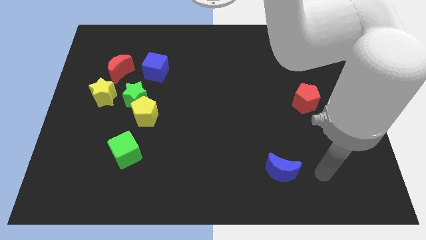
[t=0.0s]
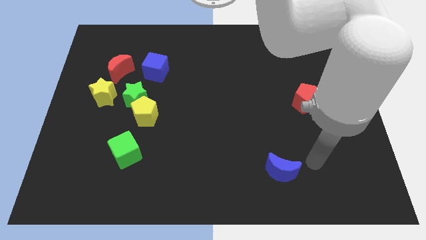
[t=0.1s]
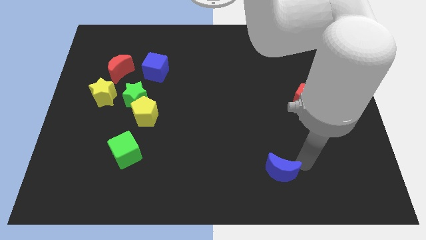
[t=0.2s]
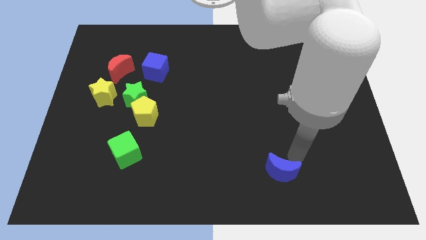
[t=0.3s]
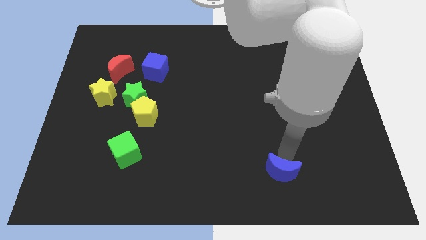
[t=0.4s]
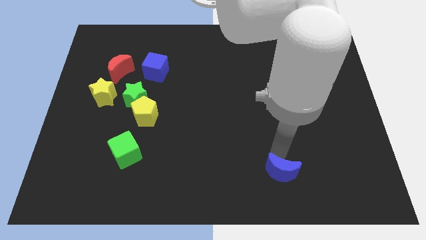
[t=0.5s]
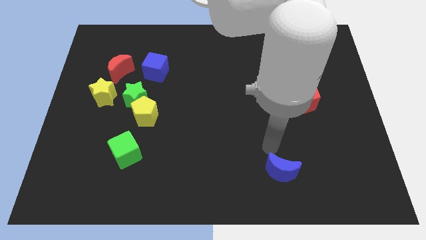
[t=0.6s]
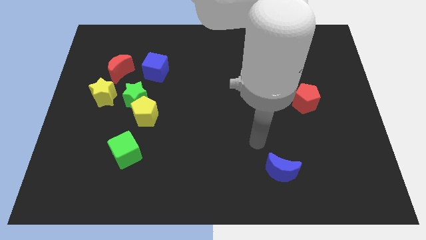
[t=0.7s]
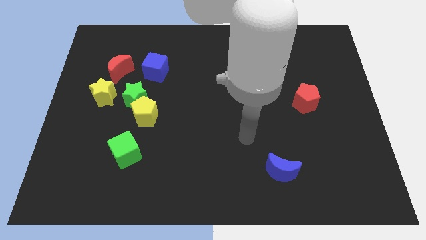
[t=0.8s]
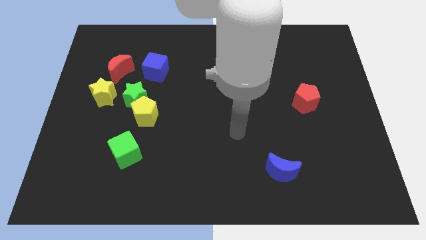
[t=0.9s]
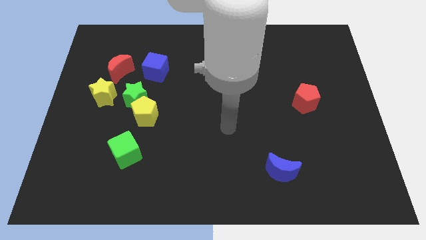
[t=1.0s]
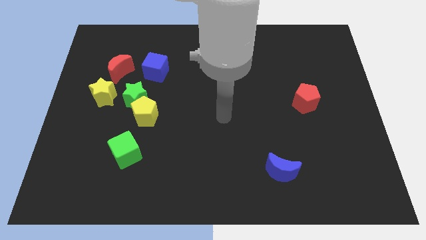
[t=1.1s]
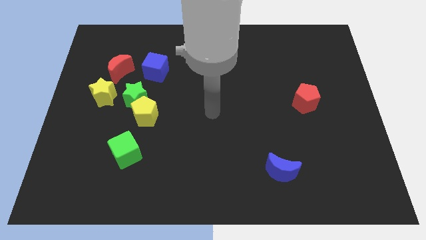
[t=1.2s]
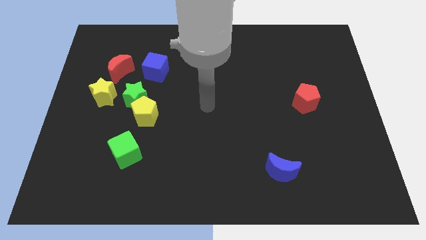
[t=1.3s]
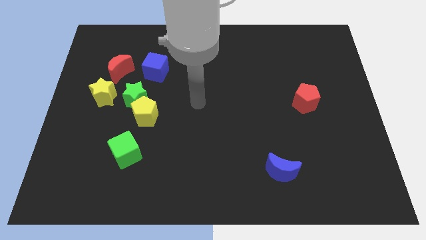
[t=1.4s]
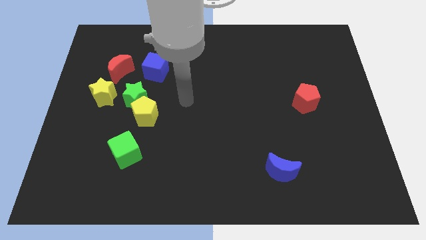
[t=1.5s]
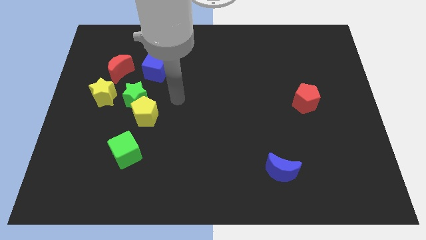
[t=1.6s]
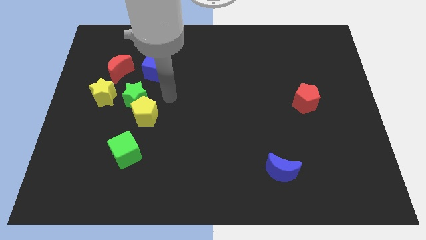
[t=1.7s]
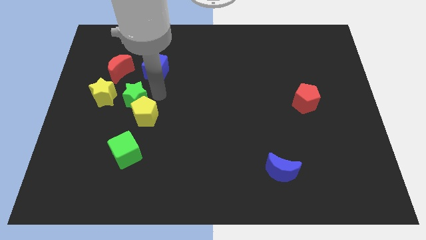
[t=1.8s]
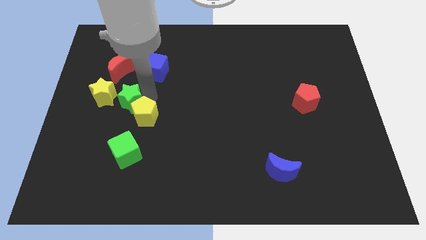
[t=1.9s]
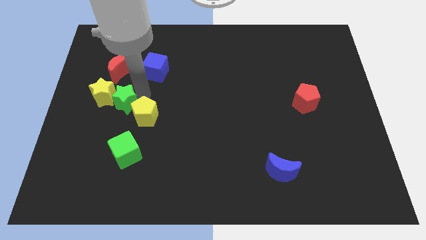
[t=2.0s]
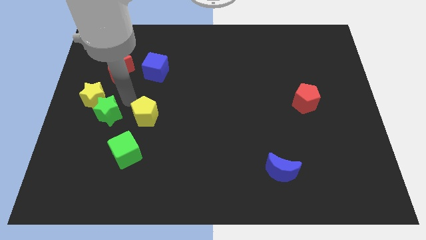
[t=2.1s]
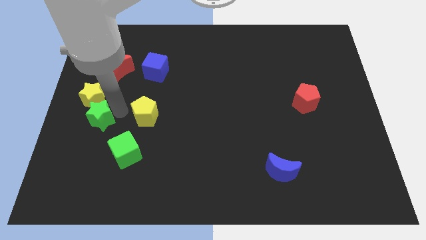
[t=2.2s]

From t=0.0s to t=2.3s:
move the yellow pentagon away from the green star

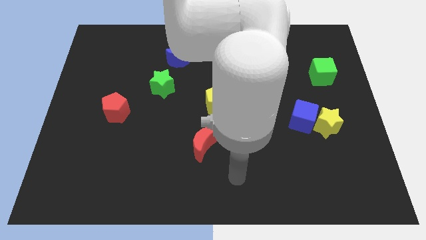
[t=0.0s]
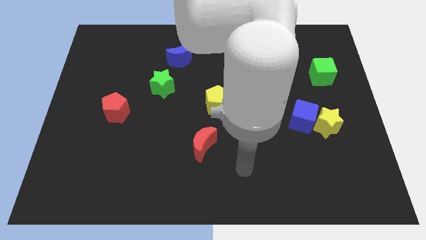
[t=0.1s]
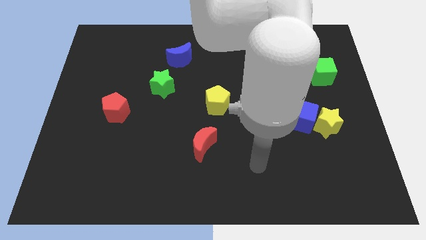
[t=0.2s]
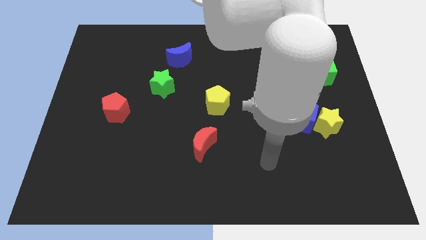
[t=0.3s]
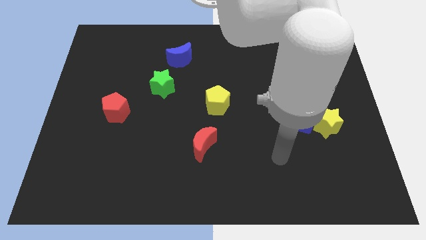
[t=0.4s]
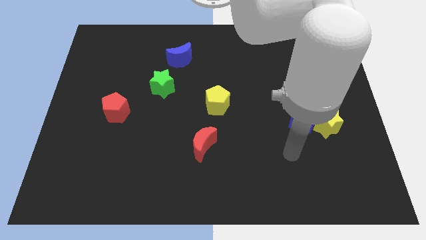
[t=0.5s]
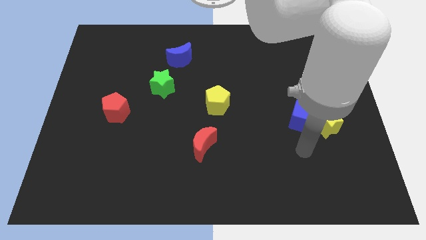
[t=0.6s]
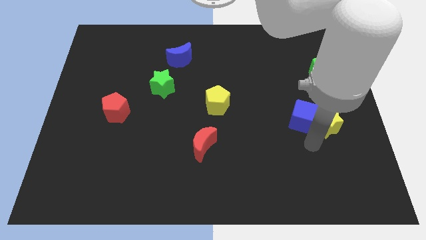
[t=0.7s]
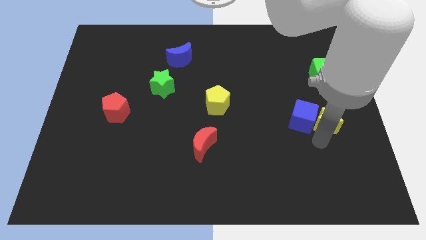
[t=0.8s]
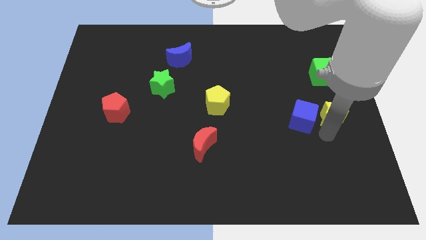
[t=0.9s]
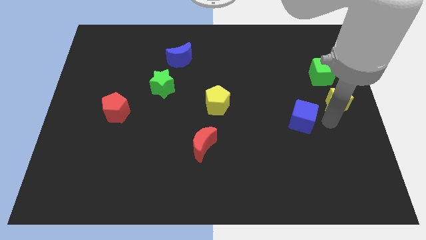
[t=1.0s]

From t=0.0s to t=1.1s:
pull the blue cube apart from the yellow star

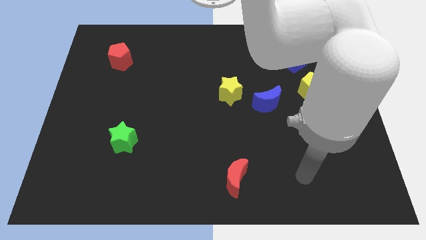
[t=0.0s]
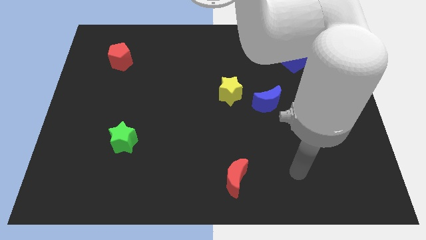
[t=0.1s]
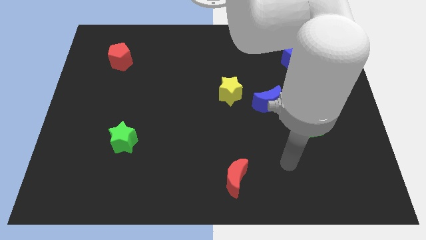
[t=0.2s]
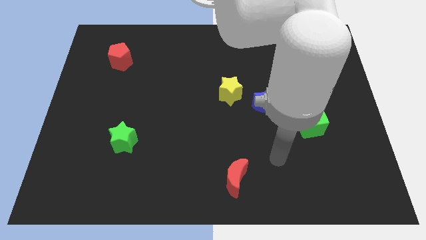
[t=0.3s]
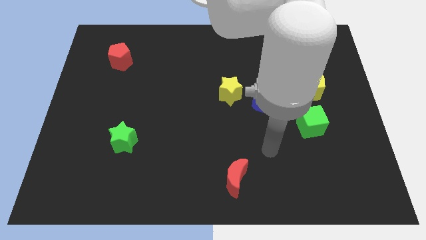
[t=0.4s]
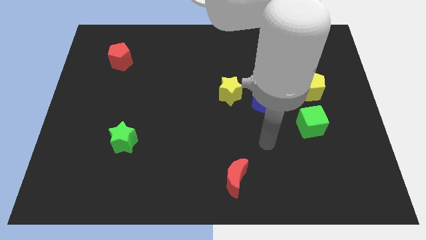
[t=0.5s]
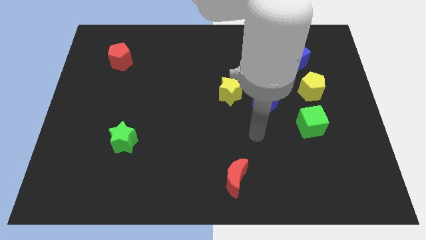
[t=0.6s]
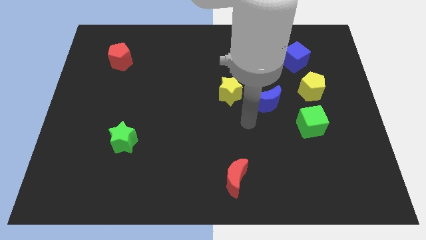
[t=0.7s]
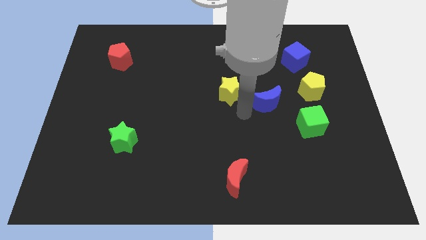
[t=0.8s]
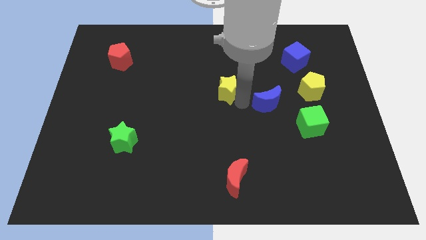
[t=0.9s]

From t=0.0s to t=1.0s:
move the blue moon away from the yellow star

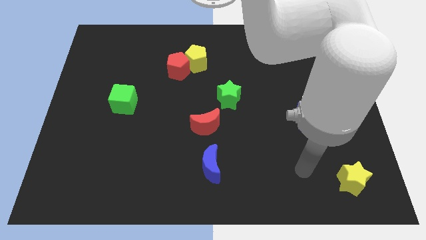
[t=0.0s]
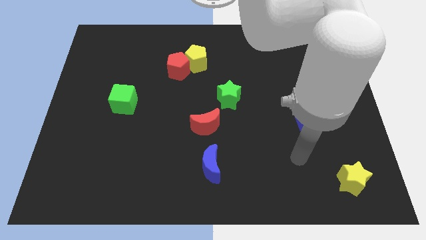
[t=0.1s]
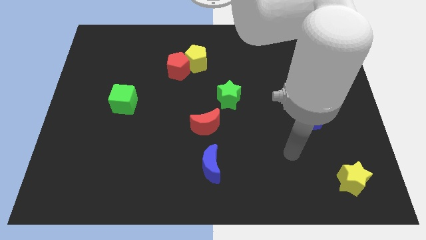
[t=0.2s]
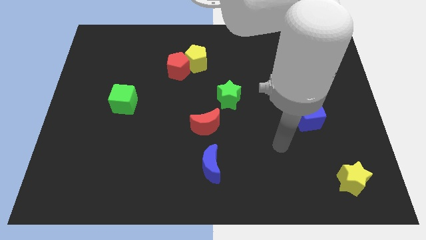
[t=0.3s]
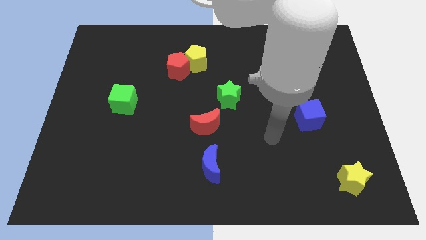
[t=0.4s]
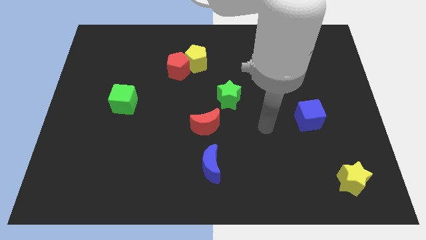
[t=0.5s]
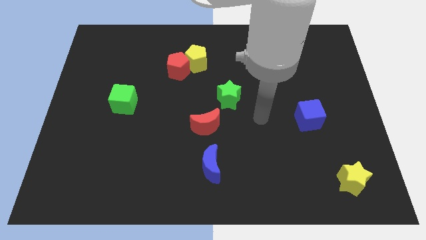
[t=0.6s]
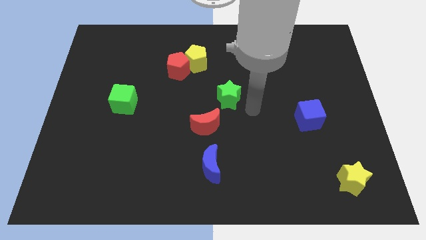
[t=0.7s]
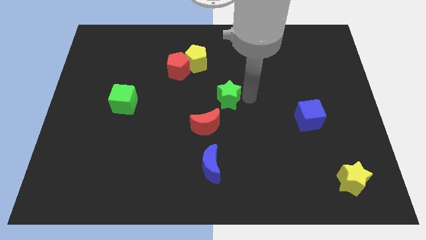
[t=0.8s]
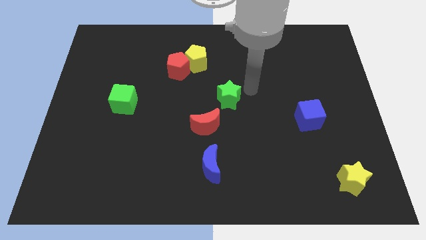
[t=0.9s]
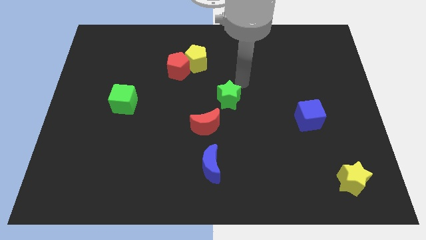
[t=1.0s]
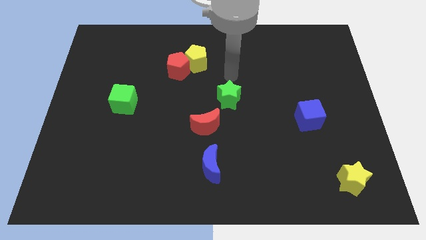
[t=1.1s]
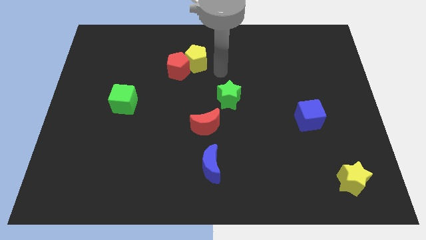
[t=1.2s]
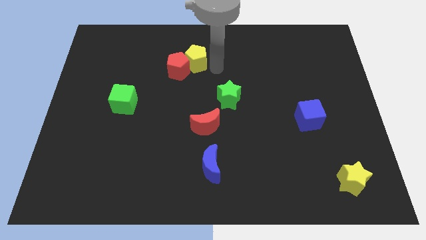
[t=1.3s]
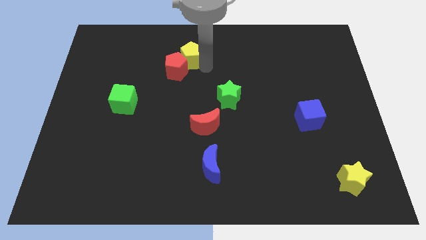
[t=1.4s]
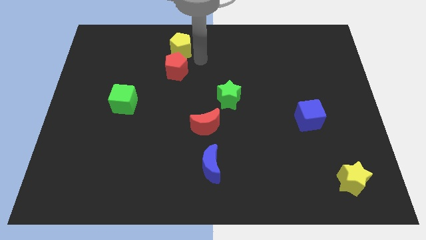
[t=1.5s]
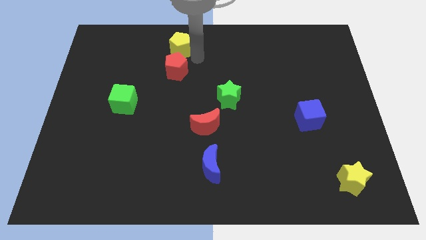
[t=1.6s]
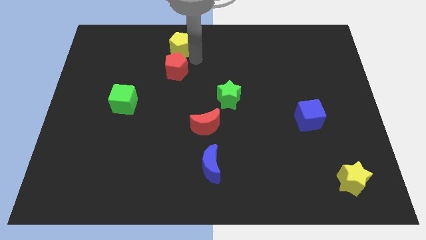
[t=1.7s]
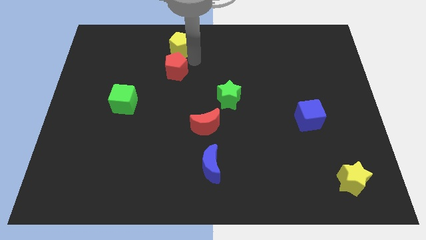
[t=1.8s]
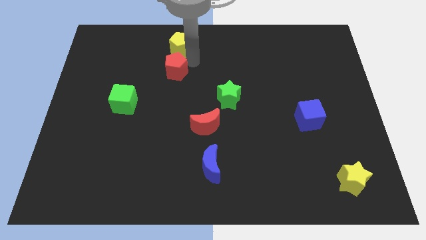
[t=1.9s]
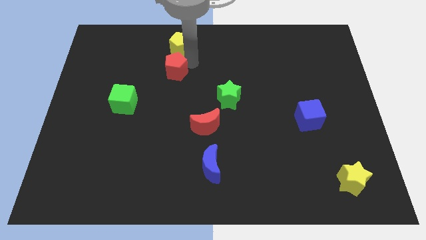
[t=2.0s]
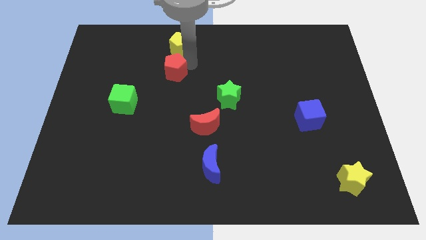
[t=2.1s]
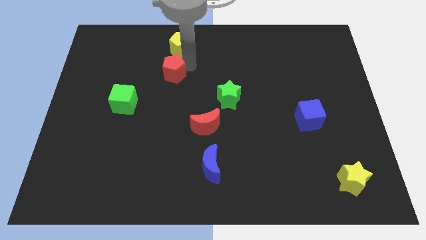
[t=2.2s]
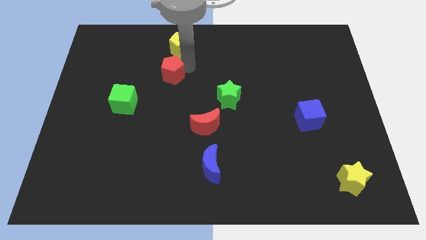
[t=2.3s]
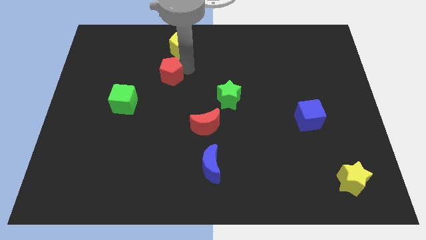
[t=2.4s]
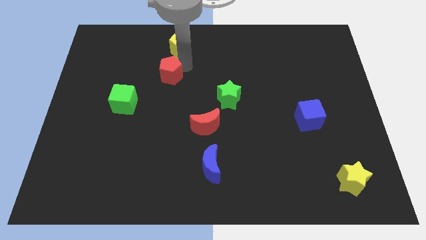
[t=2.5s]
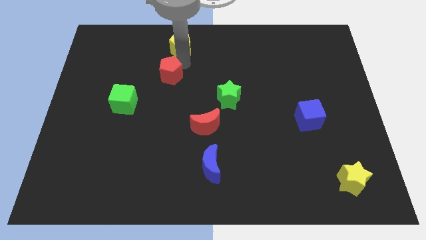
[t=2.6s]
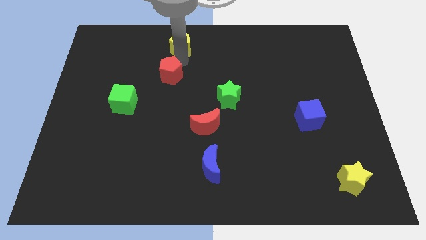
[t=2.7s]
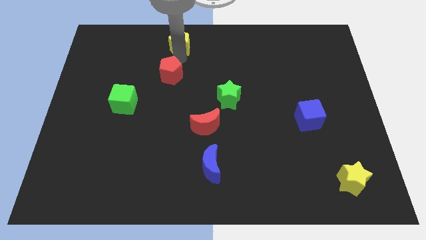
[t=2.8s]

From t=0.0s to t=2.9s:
pull the red pentagon apart from the yellow pentagon

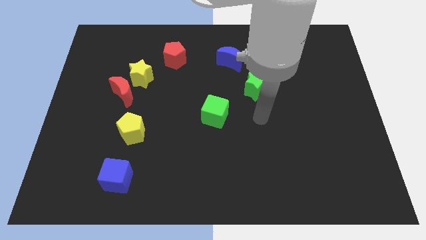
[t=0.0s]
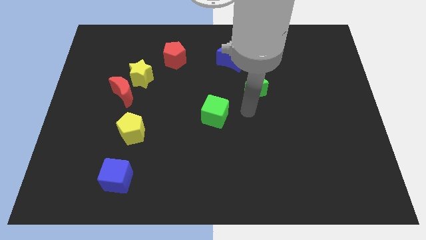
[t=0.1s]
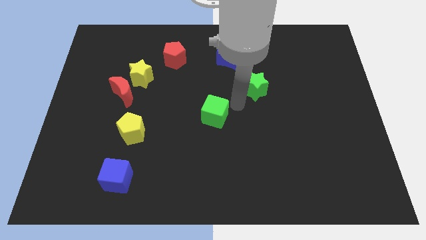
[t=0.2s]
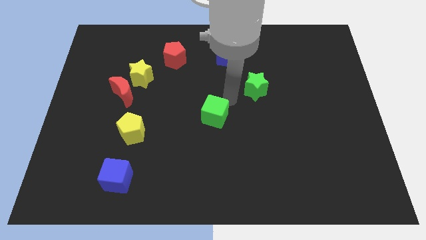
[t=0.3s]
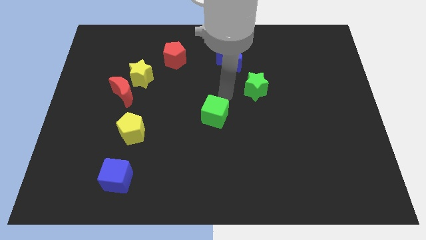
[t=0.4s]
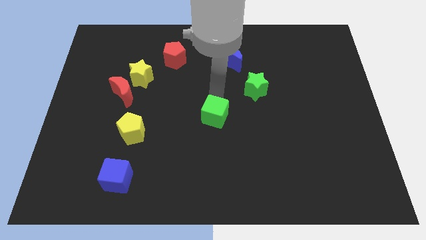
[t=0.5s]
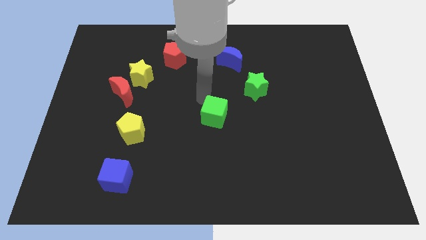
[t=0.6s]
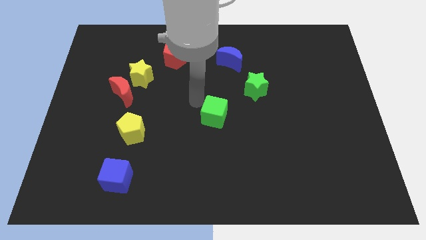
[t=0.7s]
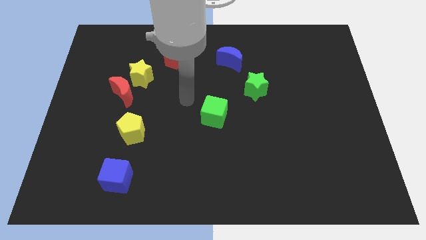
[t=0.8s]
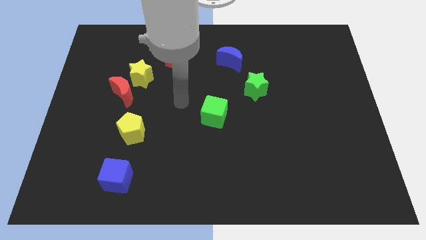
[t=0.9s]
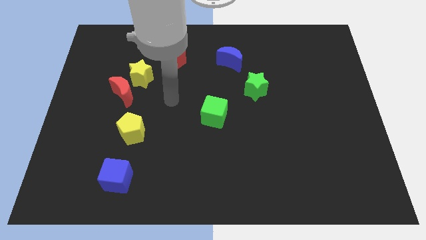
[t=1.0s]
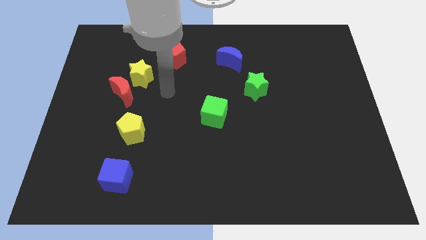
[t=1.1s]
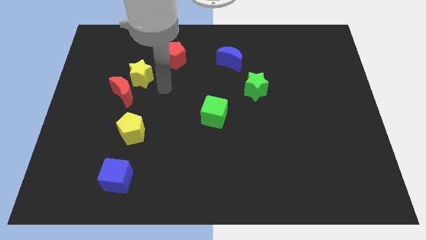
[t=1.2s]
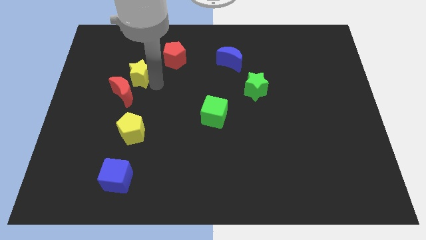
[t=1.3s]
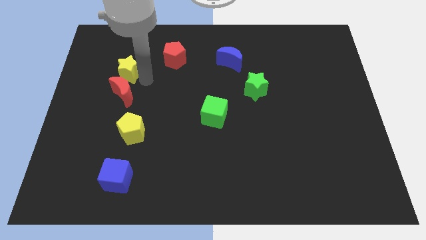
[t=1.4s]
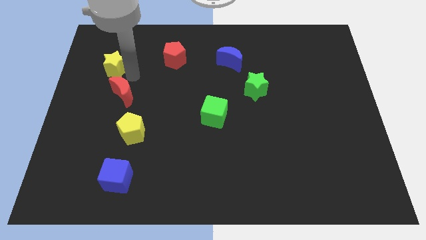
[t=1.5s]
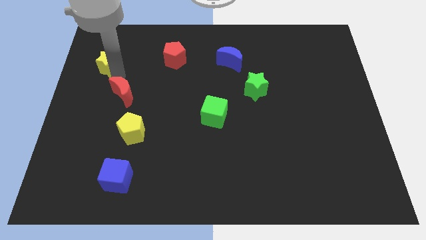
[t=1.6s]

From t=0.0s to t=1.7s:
move the red moon away from the yellow star

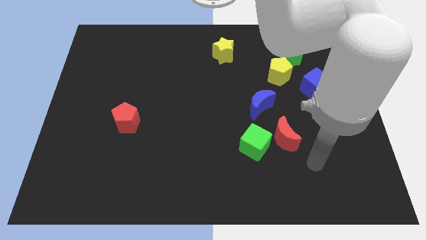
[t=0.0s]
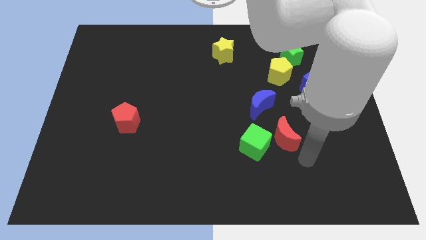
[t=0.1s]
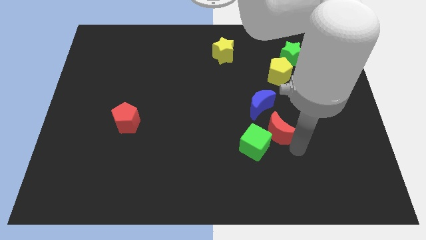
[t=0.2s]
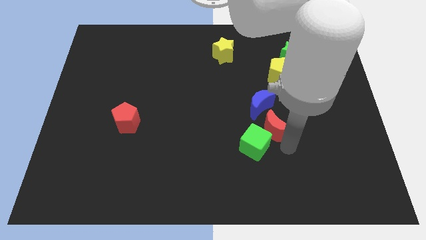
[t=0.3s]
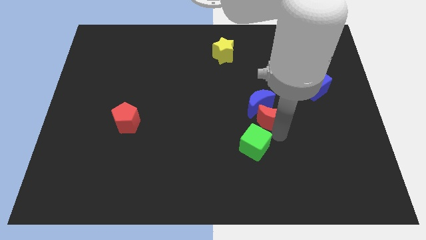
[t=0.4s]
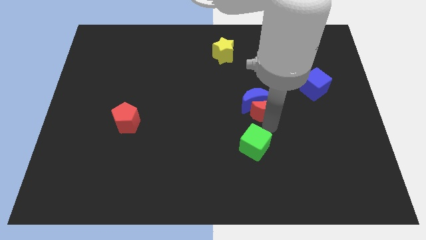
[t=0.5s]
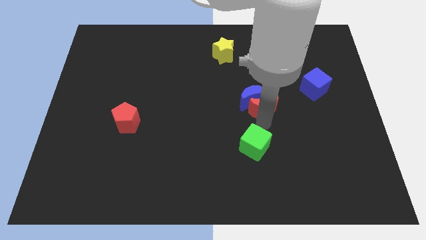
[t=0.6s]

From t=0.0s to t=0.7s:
move the green cube away from the red moon
